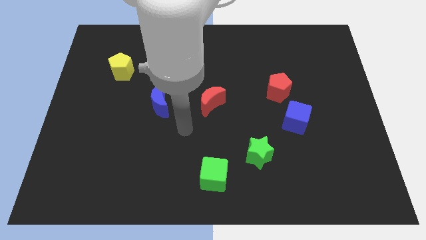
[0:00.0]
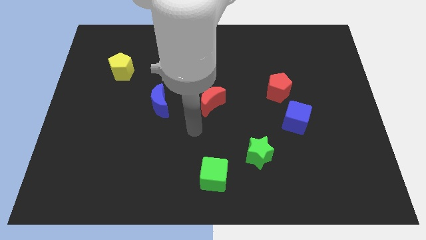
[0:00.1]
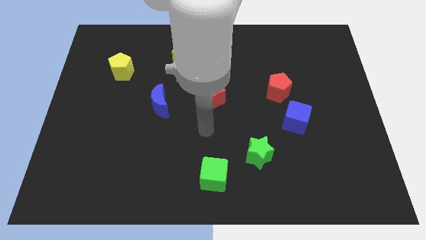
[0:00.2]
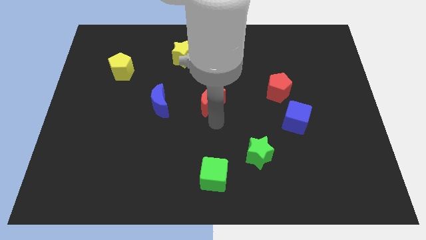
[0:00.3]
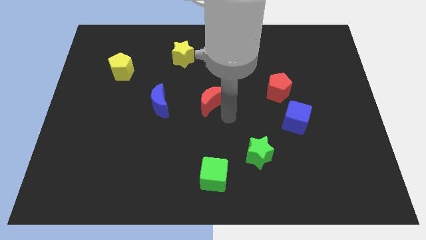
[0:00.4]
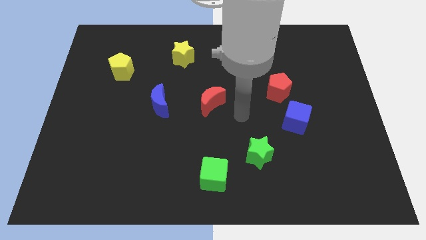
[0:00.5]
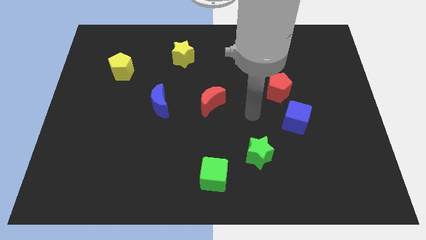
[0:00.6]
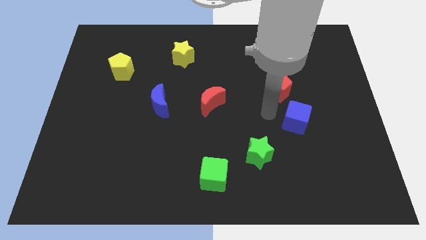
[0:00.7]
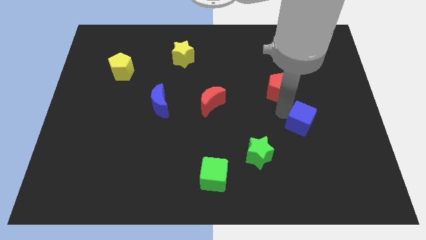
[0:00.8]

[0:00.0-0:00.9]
pull the red pentagon apart from the blue cube

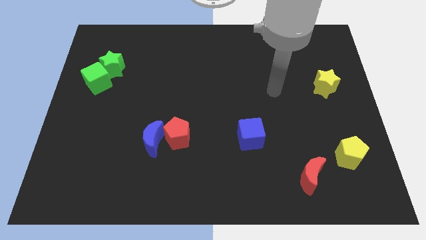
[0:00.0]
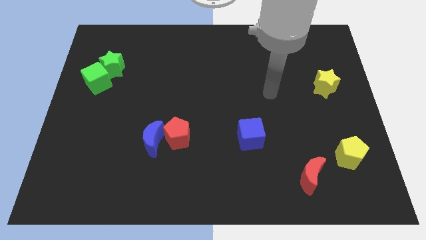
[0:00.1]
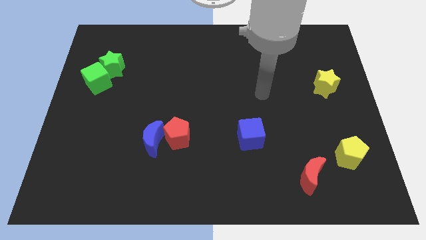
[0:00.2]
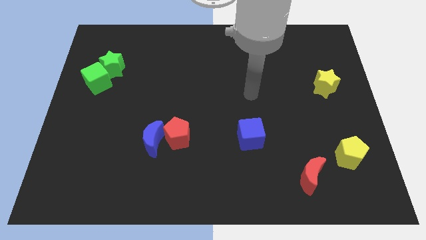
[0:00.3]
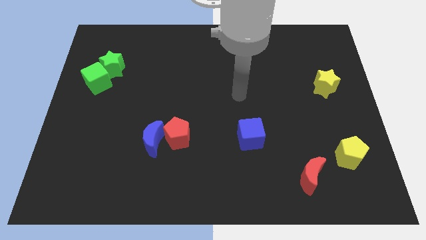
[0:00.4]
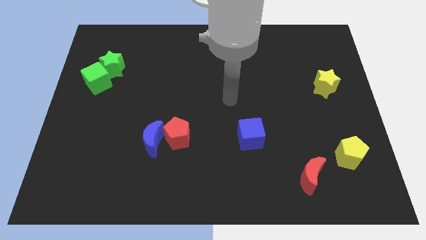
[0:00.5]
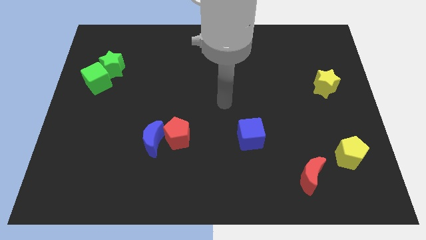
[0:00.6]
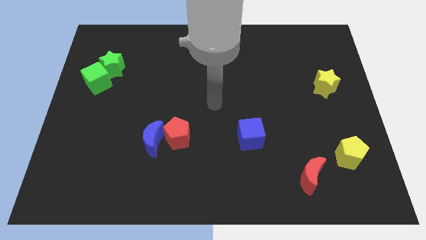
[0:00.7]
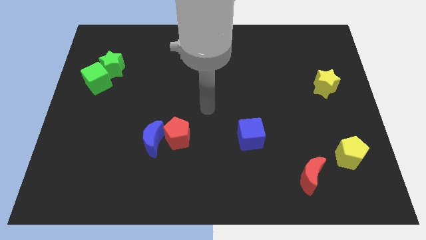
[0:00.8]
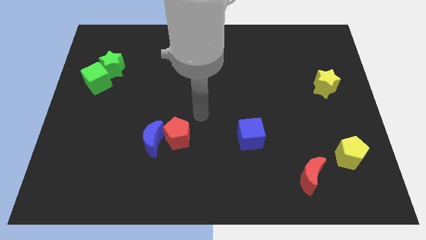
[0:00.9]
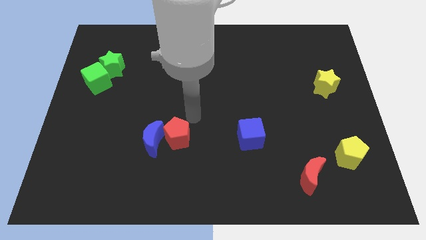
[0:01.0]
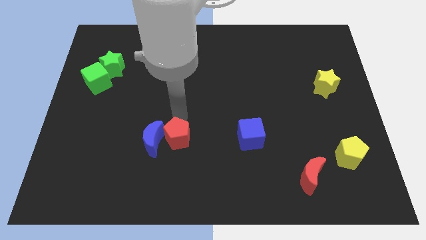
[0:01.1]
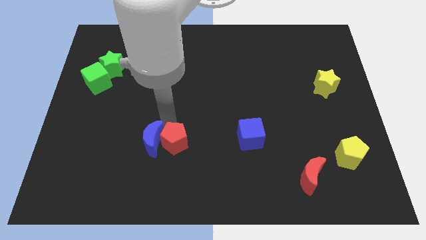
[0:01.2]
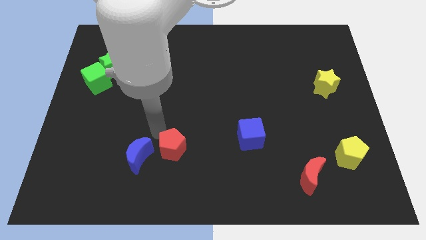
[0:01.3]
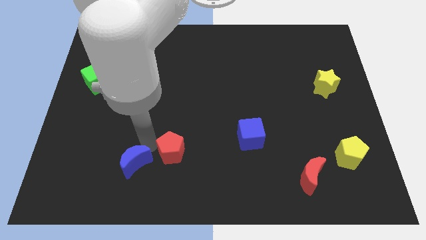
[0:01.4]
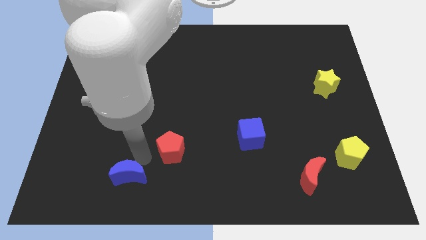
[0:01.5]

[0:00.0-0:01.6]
separate the red pentagon from the blue moon

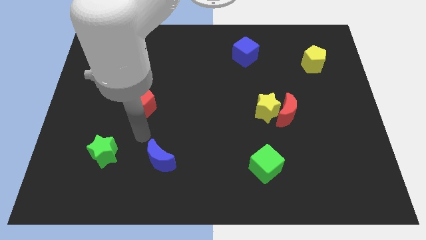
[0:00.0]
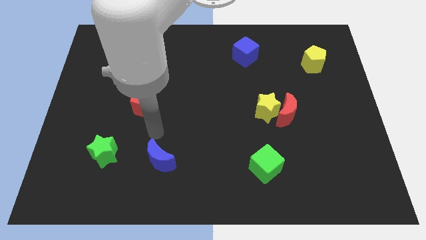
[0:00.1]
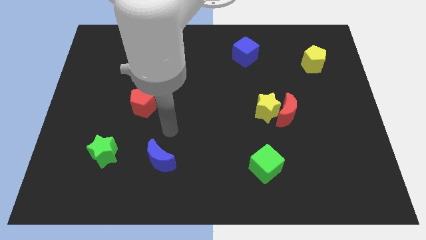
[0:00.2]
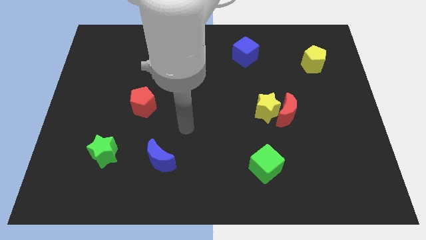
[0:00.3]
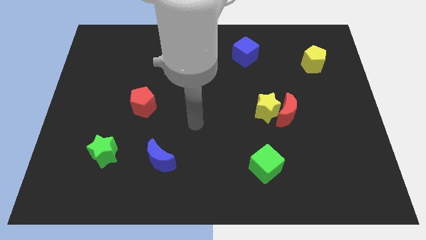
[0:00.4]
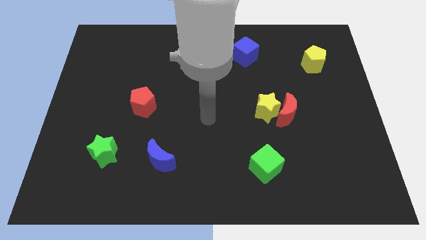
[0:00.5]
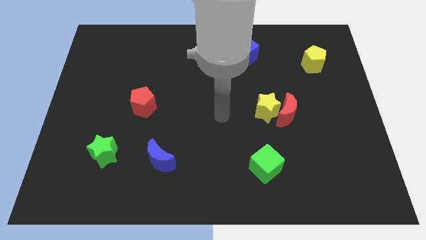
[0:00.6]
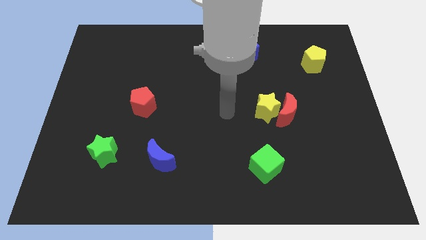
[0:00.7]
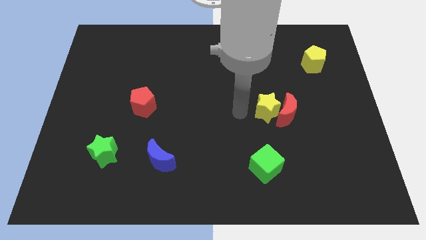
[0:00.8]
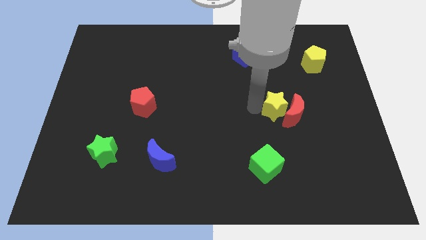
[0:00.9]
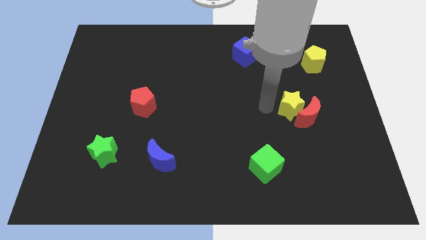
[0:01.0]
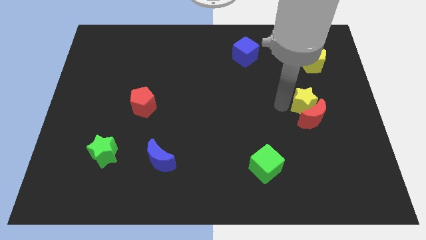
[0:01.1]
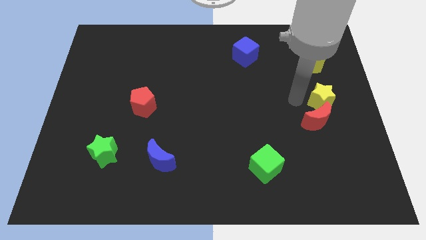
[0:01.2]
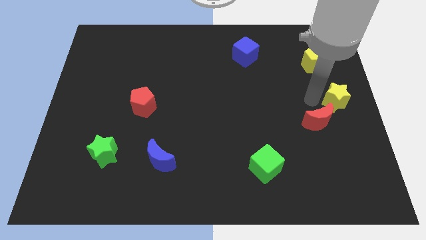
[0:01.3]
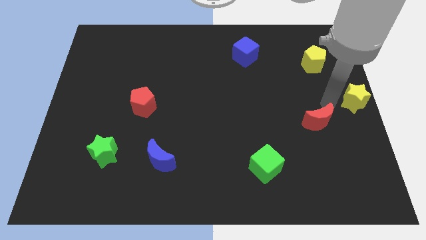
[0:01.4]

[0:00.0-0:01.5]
separate the red moon from the yellow star

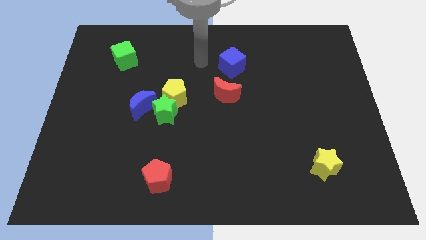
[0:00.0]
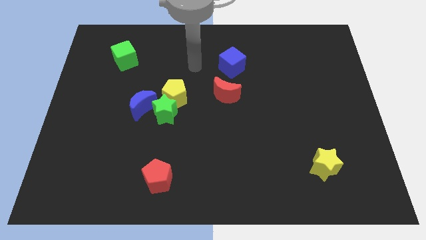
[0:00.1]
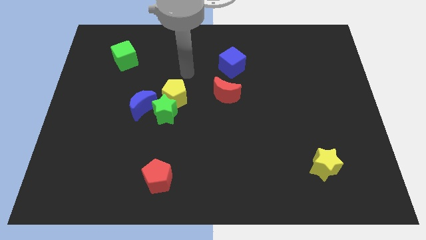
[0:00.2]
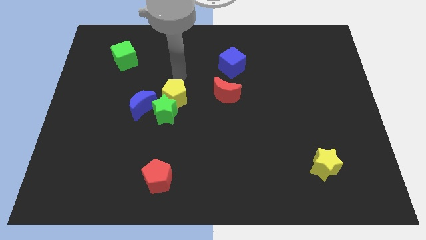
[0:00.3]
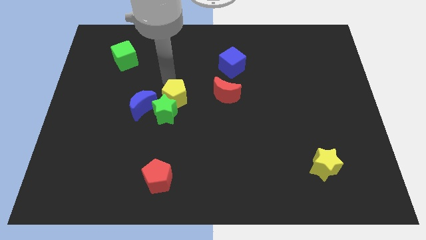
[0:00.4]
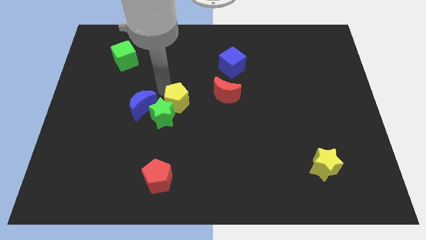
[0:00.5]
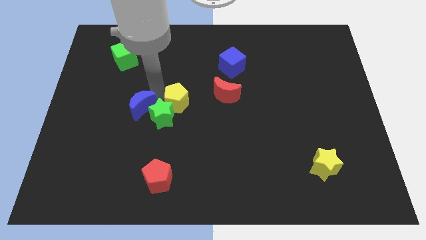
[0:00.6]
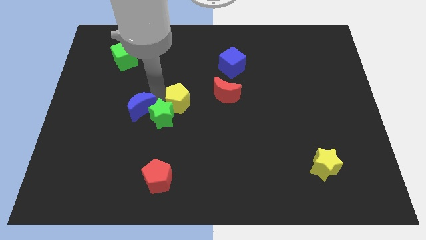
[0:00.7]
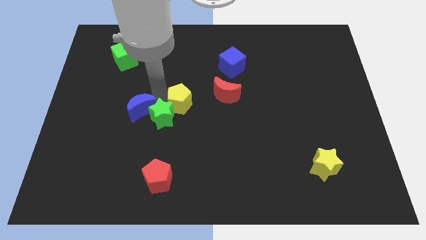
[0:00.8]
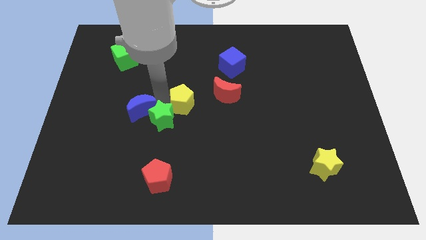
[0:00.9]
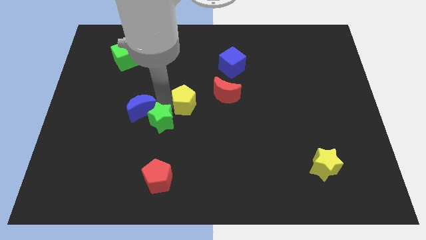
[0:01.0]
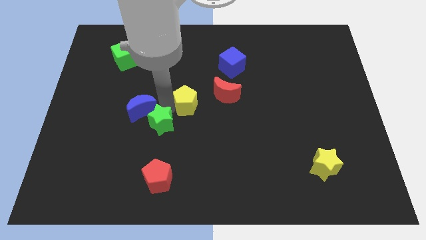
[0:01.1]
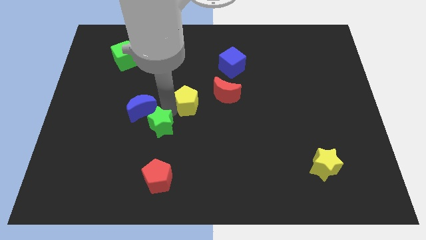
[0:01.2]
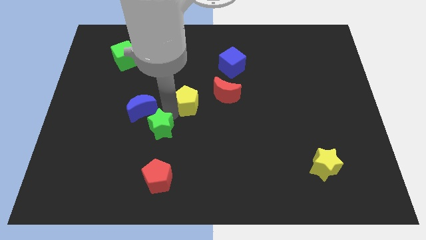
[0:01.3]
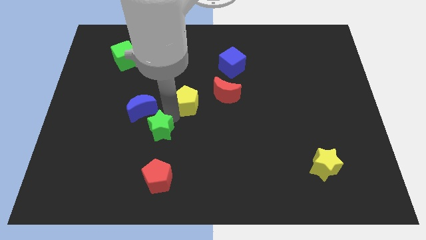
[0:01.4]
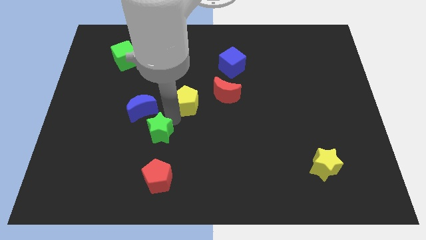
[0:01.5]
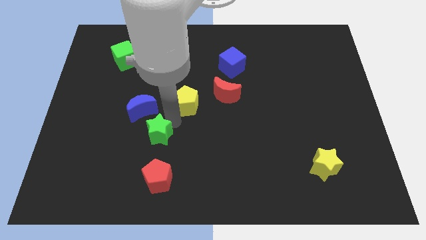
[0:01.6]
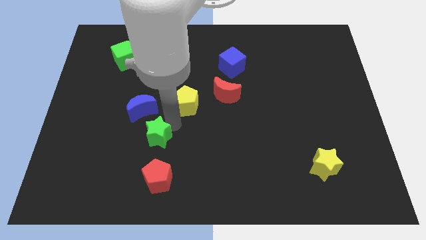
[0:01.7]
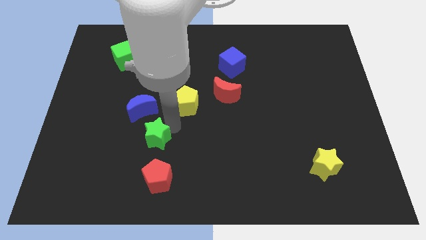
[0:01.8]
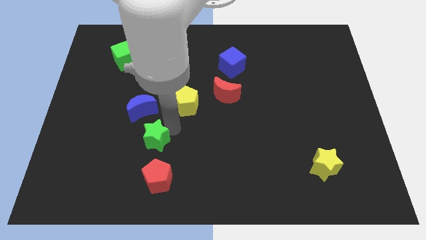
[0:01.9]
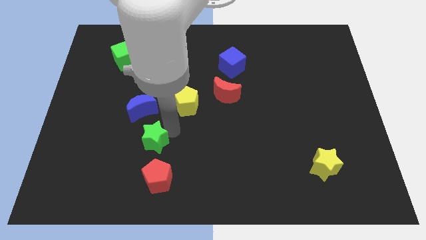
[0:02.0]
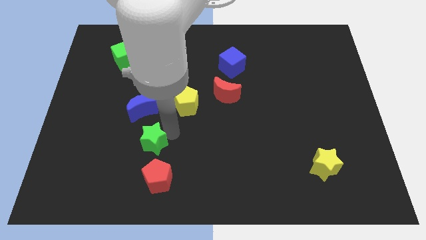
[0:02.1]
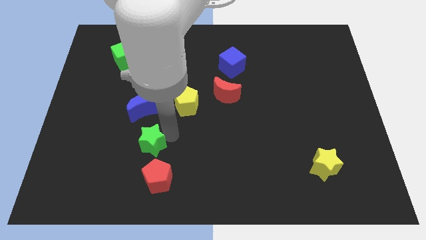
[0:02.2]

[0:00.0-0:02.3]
move the green star away from the yellow pentagon and blue moon

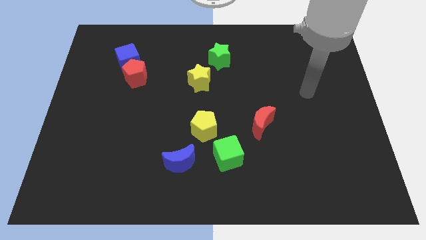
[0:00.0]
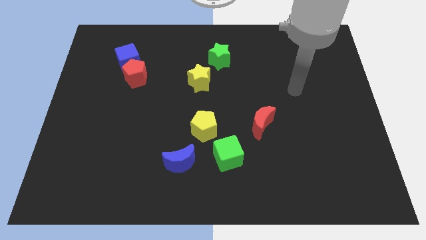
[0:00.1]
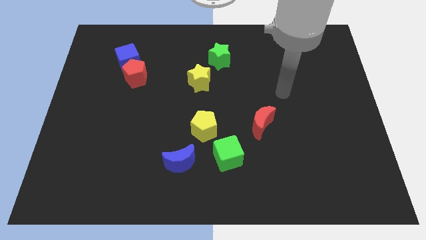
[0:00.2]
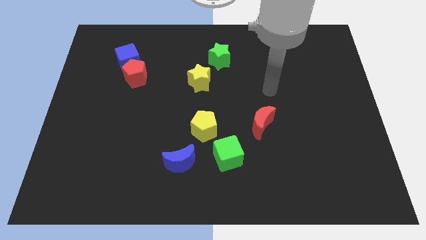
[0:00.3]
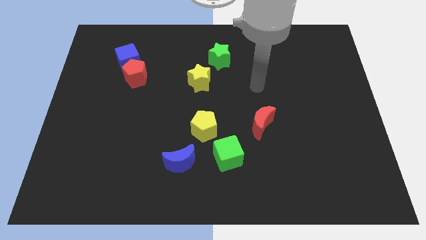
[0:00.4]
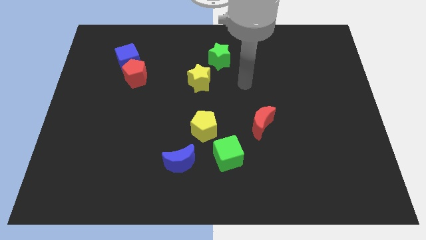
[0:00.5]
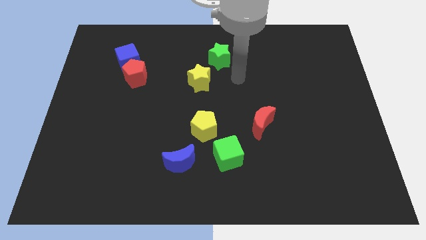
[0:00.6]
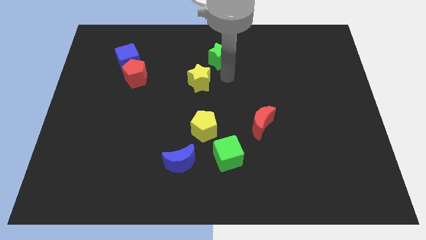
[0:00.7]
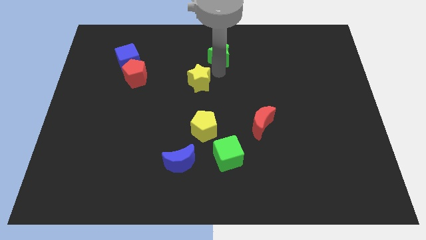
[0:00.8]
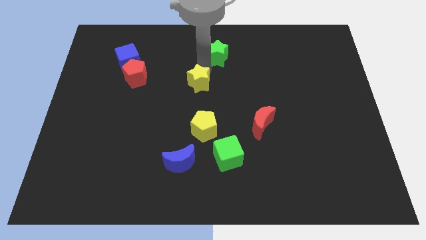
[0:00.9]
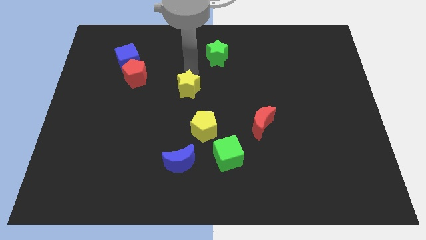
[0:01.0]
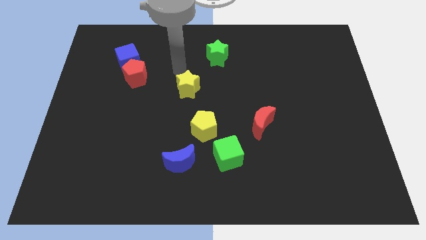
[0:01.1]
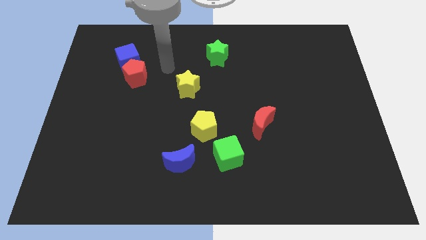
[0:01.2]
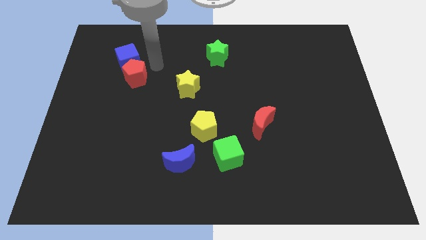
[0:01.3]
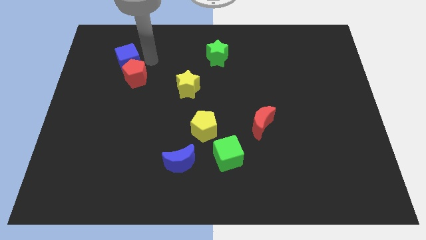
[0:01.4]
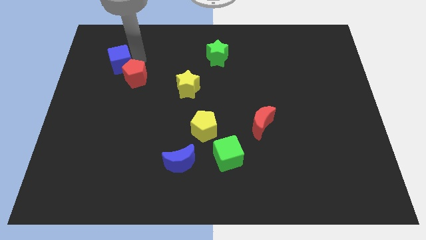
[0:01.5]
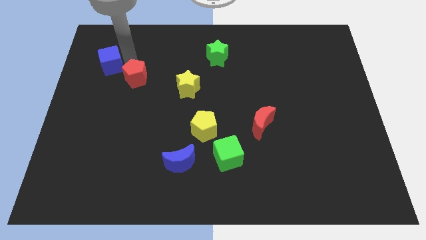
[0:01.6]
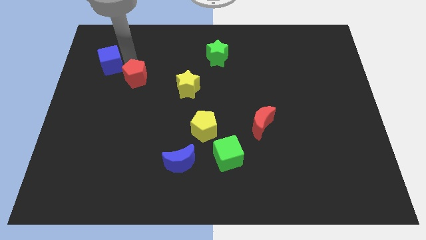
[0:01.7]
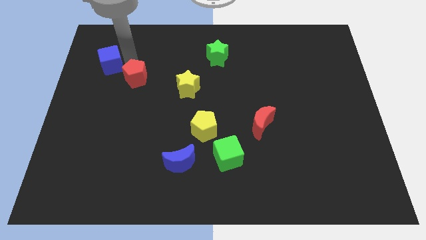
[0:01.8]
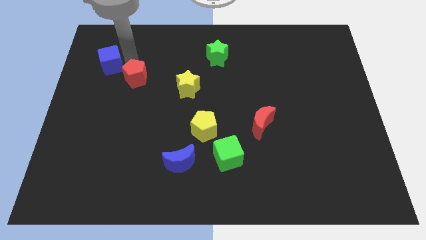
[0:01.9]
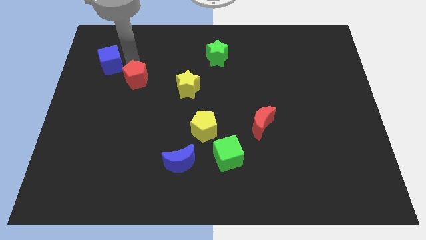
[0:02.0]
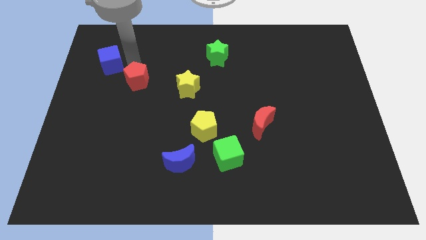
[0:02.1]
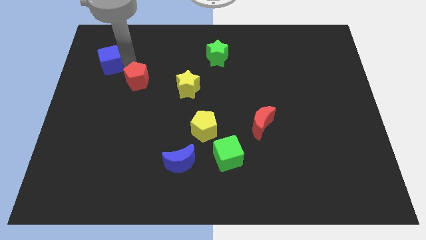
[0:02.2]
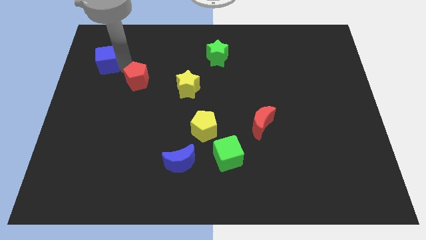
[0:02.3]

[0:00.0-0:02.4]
separate the red pentagon from the blue cube

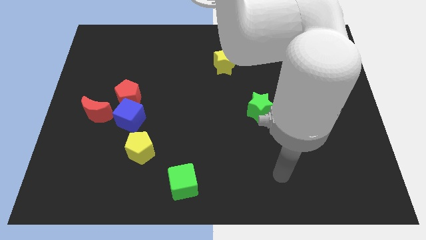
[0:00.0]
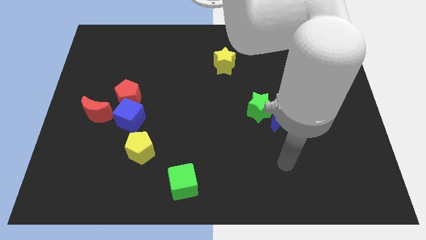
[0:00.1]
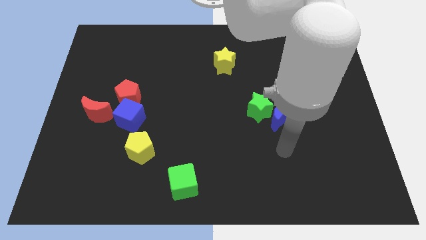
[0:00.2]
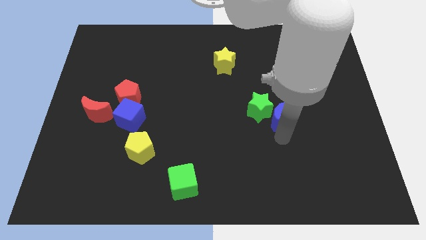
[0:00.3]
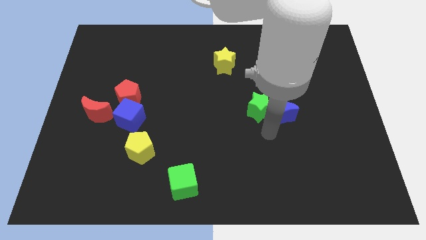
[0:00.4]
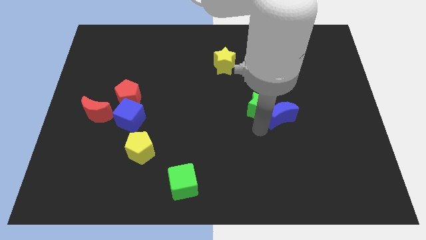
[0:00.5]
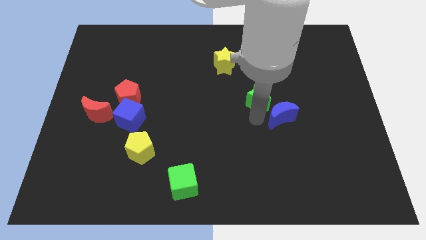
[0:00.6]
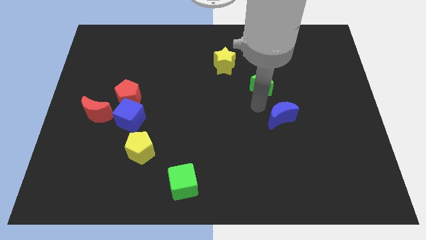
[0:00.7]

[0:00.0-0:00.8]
separate the blue moon from the green star
